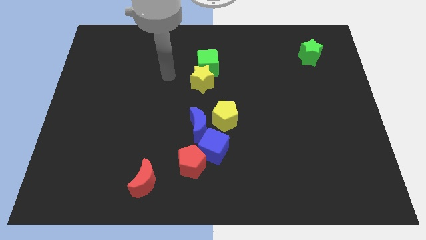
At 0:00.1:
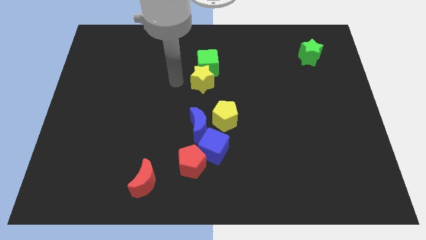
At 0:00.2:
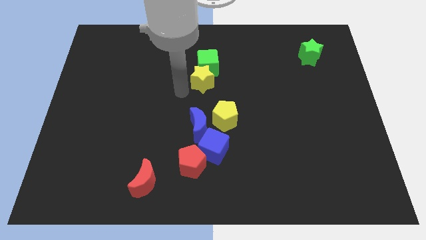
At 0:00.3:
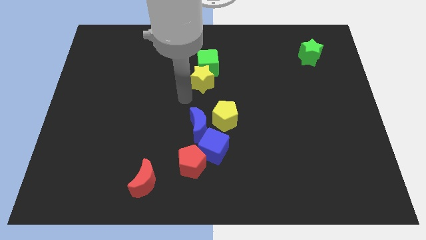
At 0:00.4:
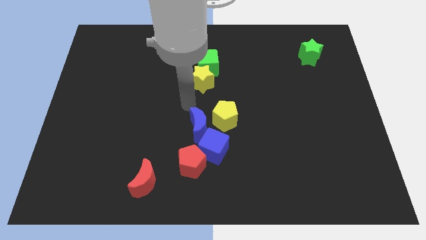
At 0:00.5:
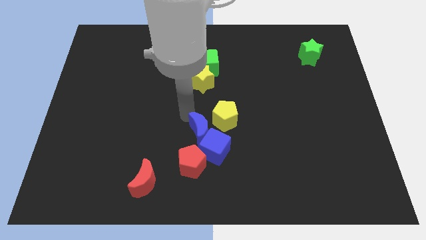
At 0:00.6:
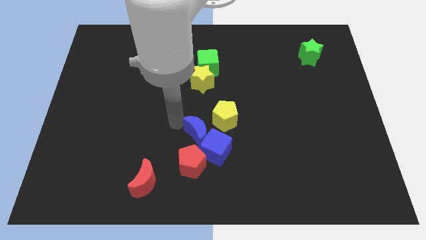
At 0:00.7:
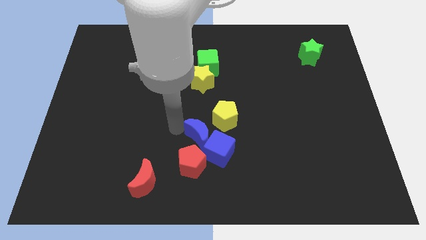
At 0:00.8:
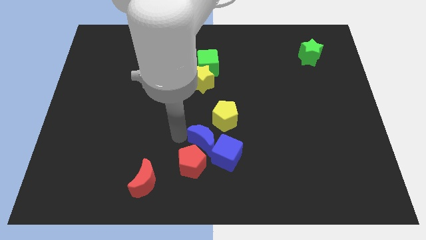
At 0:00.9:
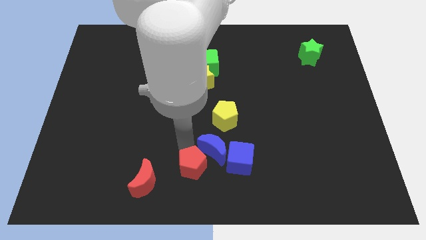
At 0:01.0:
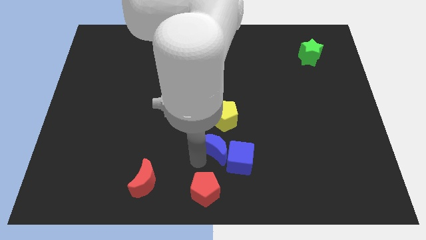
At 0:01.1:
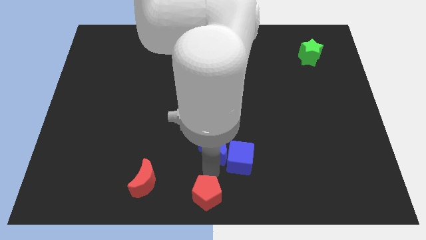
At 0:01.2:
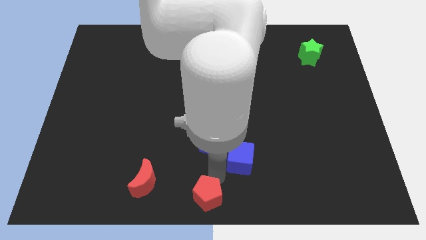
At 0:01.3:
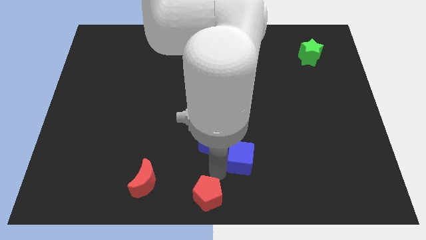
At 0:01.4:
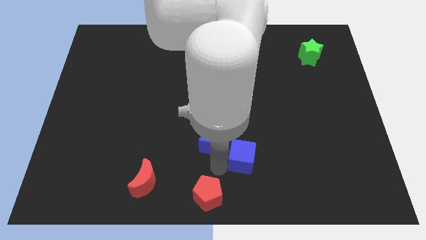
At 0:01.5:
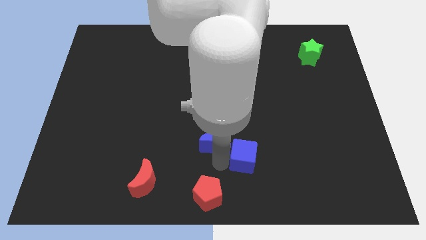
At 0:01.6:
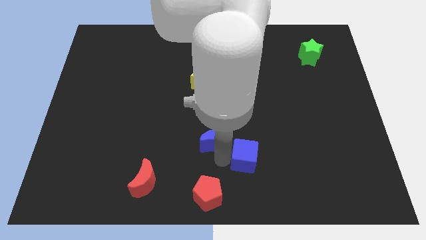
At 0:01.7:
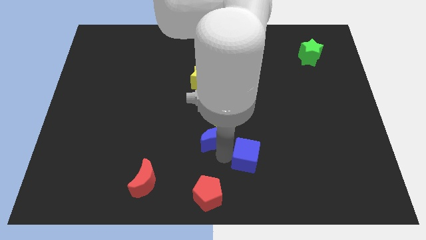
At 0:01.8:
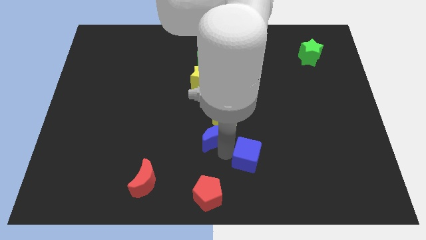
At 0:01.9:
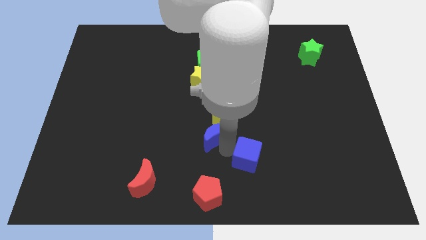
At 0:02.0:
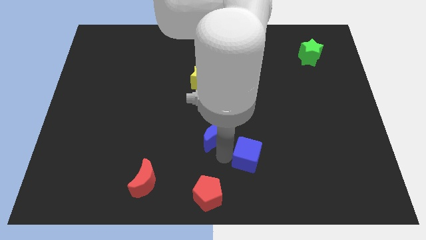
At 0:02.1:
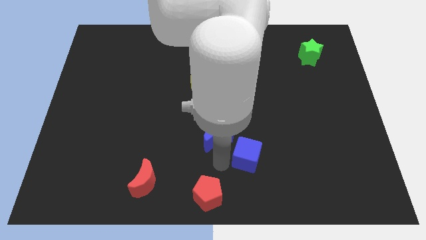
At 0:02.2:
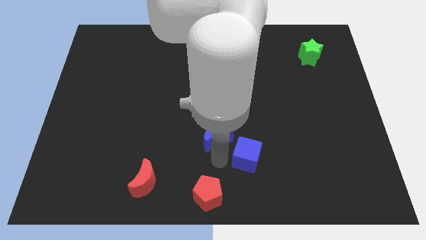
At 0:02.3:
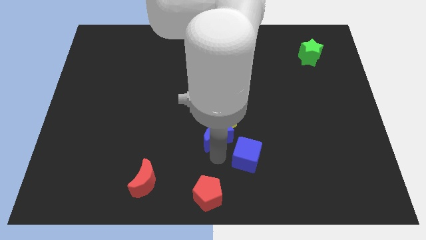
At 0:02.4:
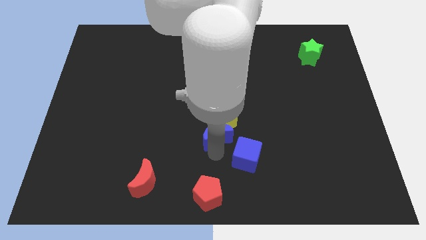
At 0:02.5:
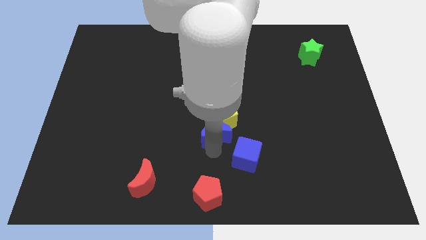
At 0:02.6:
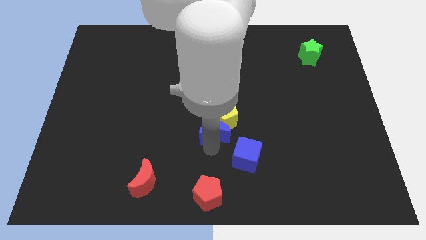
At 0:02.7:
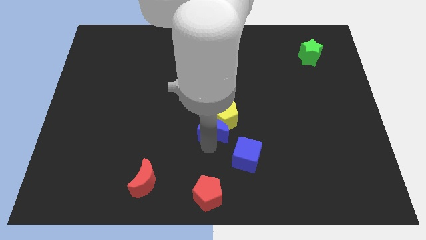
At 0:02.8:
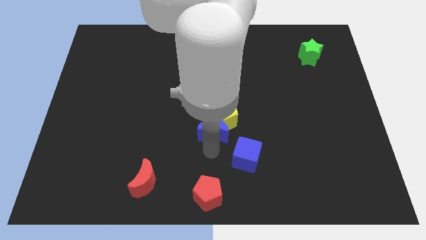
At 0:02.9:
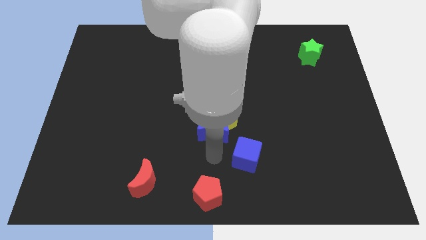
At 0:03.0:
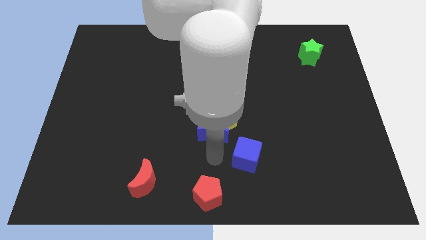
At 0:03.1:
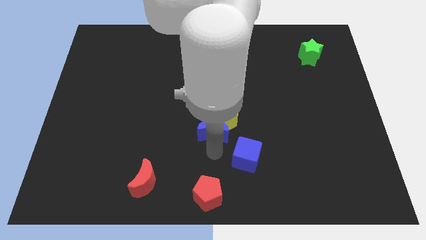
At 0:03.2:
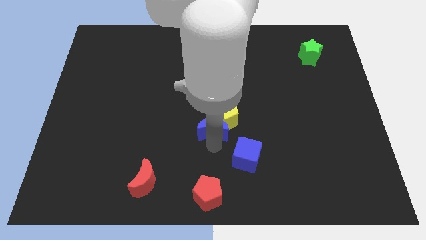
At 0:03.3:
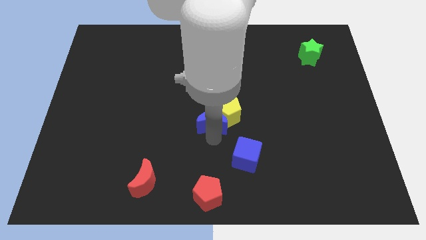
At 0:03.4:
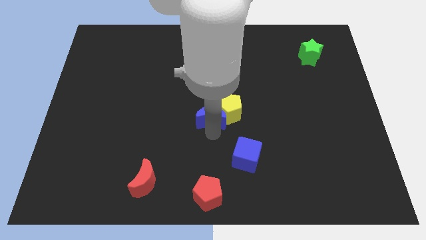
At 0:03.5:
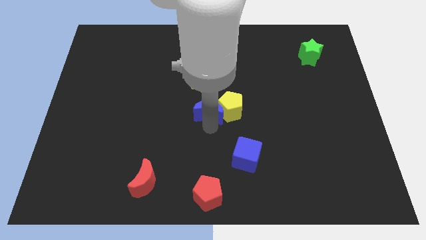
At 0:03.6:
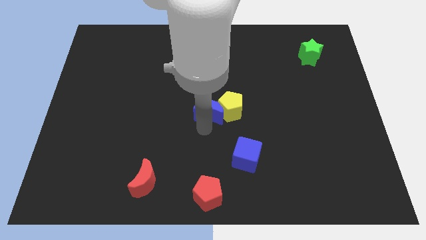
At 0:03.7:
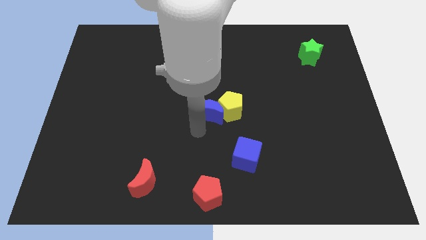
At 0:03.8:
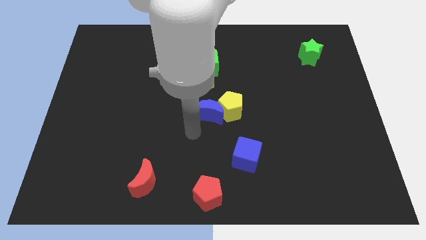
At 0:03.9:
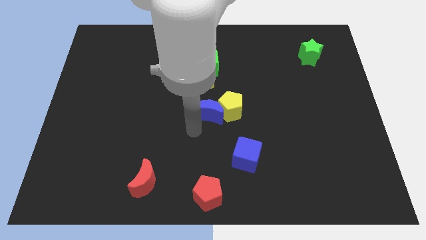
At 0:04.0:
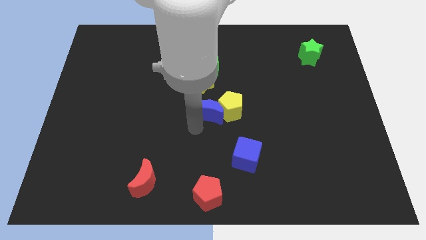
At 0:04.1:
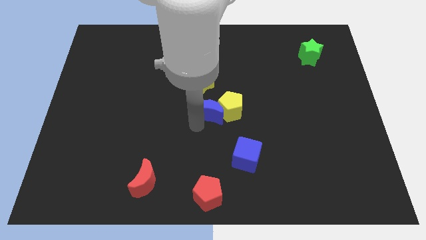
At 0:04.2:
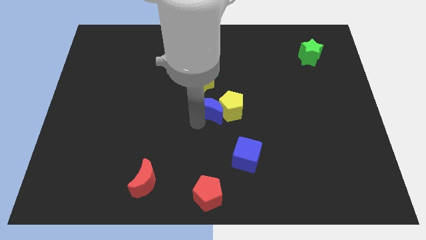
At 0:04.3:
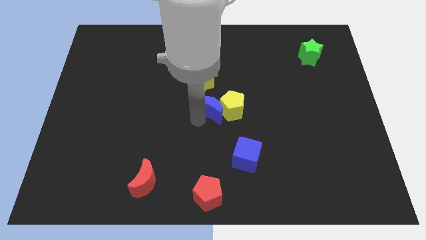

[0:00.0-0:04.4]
push the blue moon diagonally down and to the right of the yellow star

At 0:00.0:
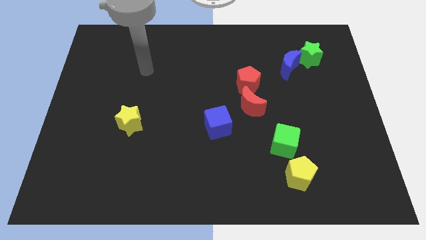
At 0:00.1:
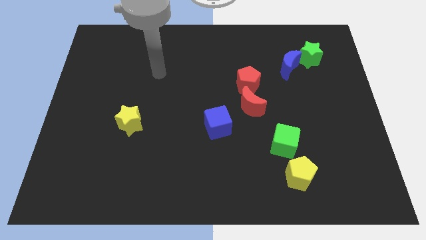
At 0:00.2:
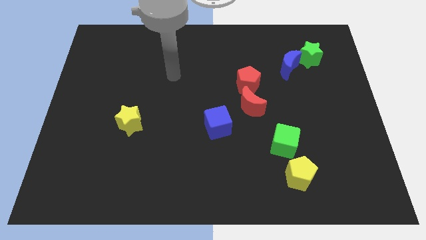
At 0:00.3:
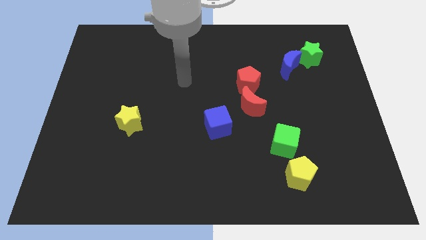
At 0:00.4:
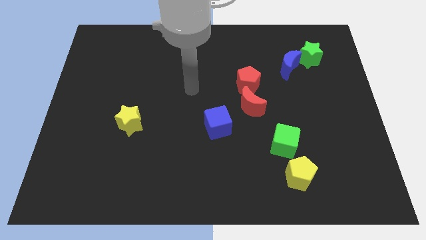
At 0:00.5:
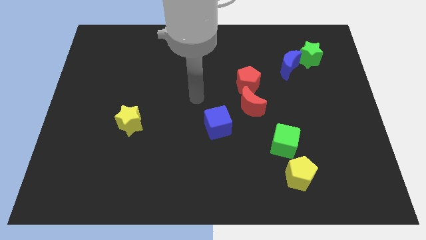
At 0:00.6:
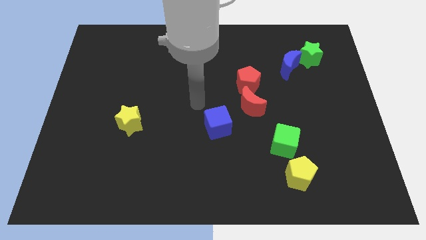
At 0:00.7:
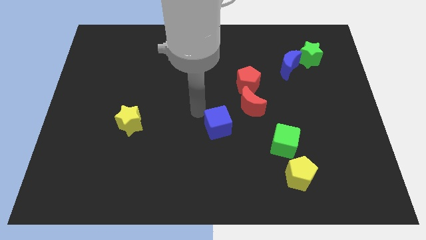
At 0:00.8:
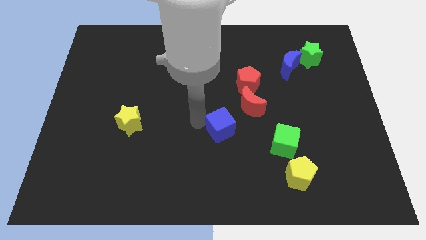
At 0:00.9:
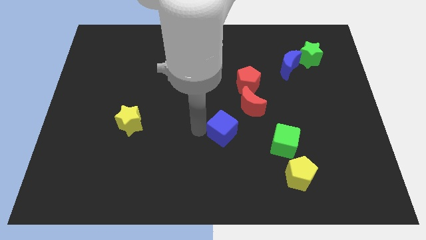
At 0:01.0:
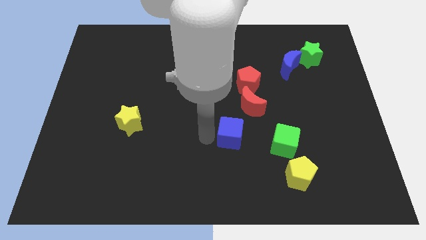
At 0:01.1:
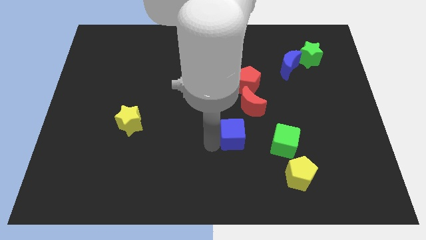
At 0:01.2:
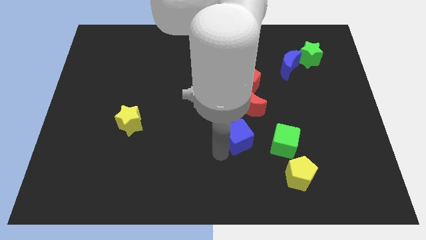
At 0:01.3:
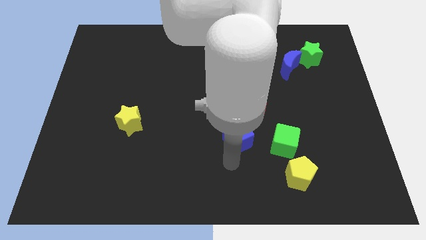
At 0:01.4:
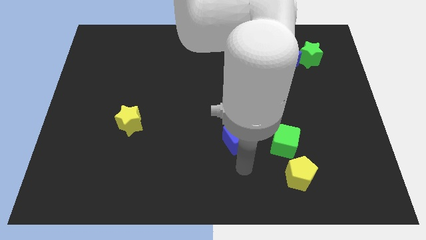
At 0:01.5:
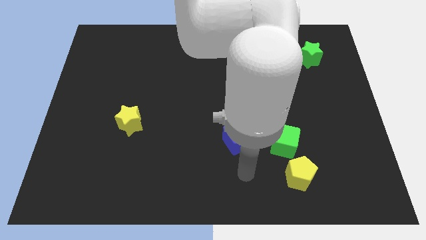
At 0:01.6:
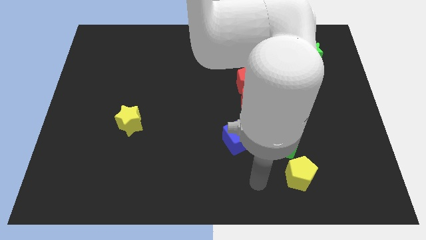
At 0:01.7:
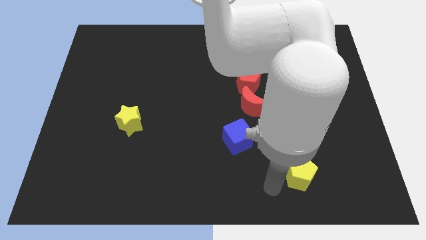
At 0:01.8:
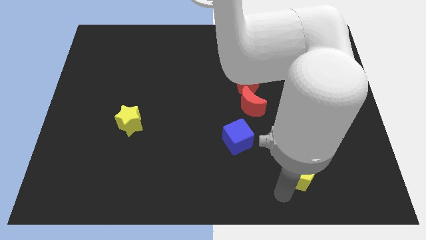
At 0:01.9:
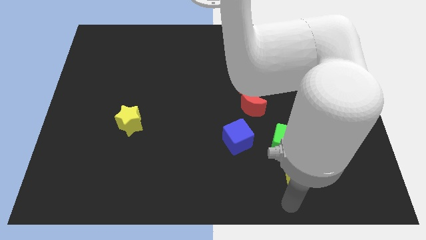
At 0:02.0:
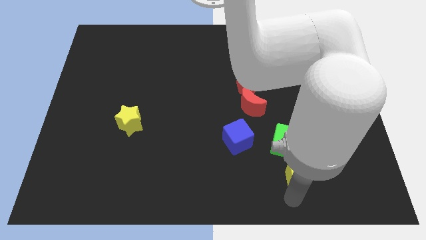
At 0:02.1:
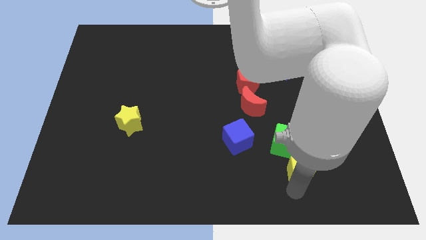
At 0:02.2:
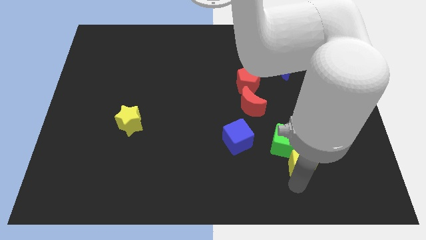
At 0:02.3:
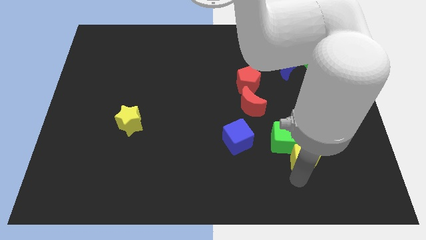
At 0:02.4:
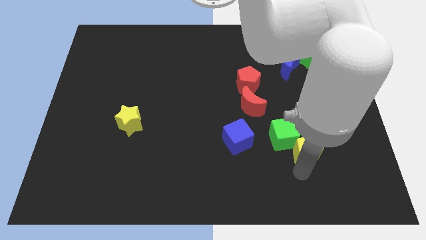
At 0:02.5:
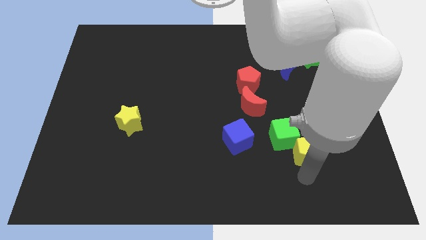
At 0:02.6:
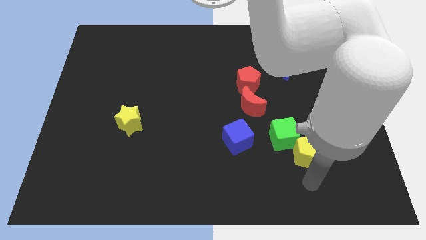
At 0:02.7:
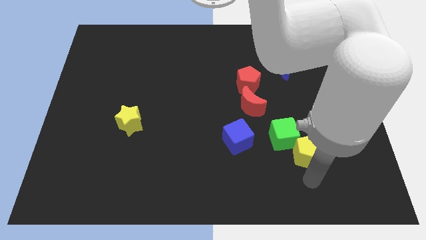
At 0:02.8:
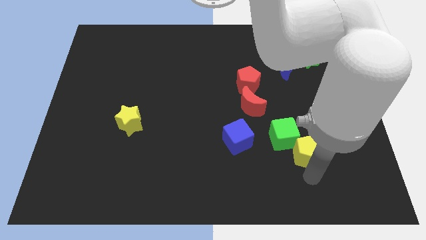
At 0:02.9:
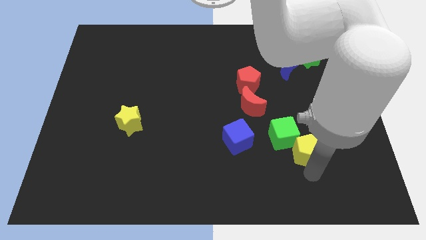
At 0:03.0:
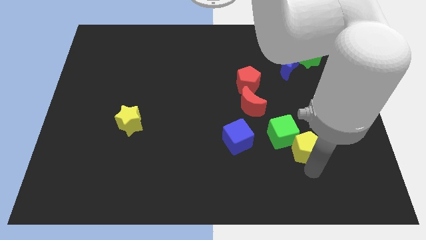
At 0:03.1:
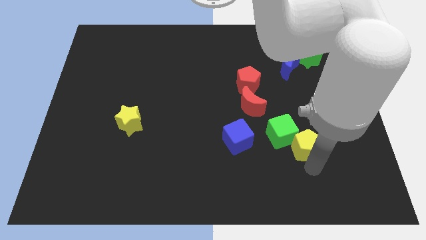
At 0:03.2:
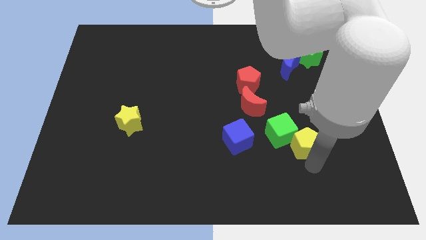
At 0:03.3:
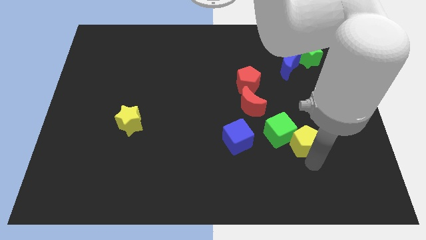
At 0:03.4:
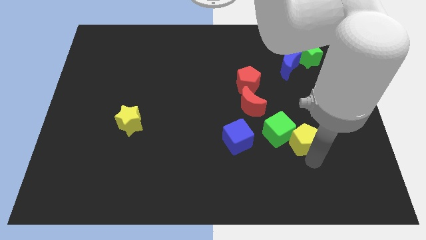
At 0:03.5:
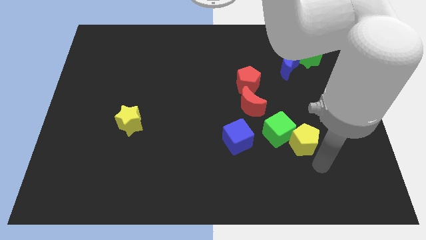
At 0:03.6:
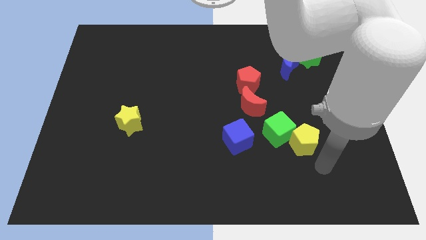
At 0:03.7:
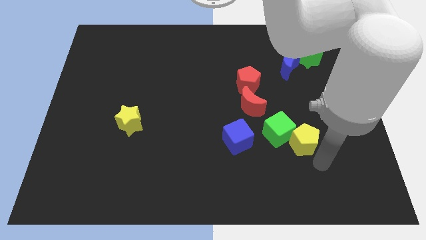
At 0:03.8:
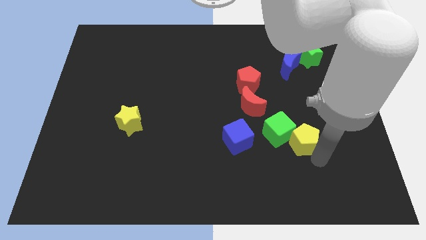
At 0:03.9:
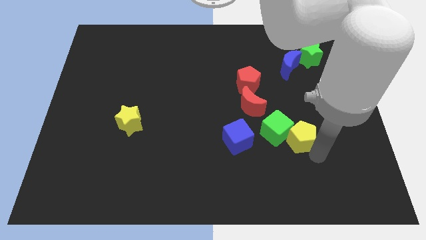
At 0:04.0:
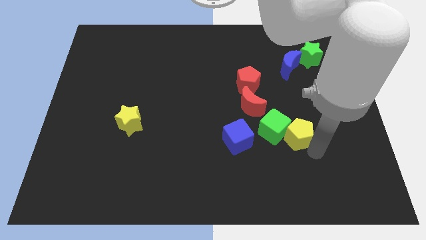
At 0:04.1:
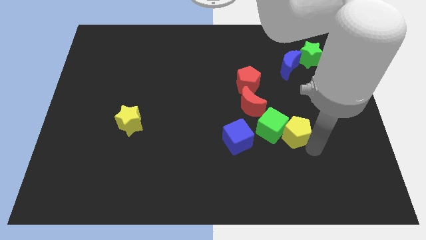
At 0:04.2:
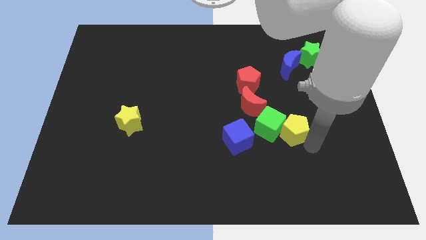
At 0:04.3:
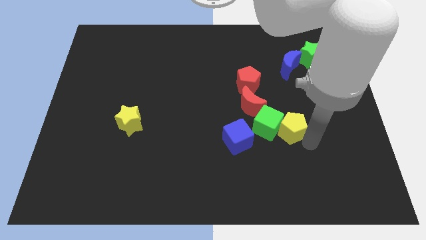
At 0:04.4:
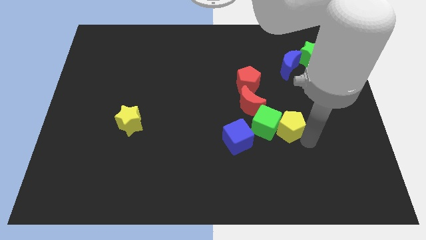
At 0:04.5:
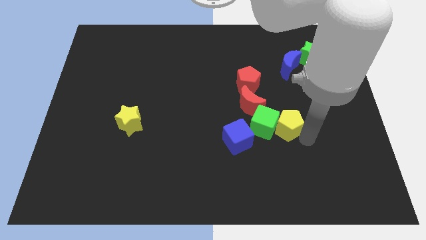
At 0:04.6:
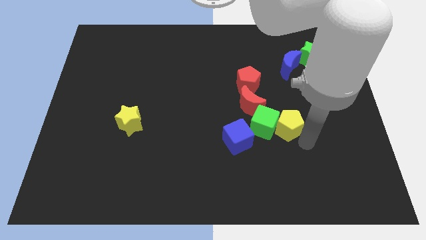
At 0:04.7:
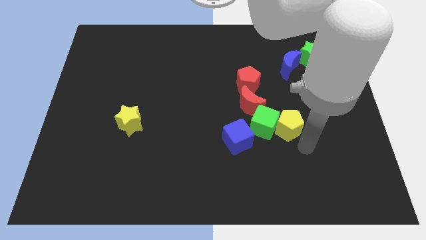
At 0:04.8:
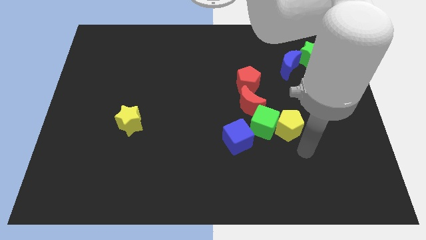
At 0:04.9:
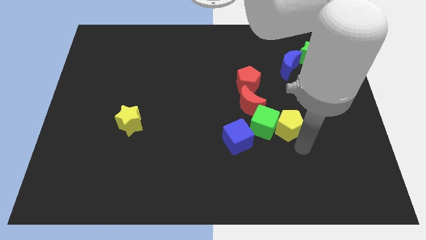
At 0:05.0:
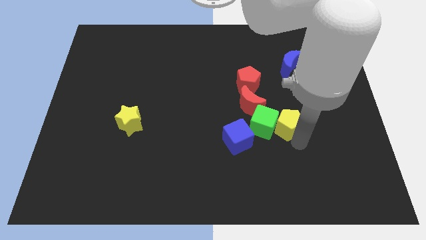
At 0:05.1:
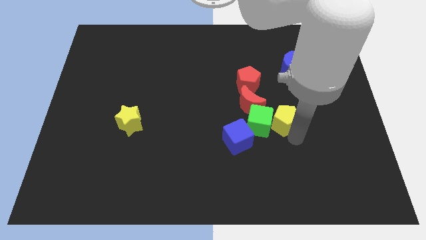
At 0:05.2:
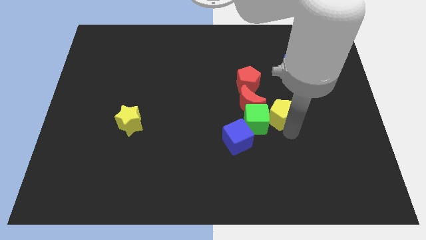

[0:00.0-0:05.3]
put the yellow pentagon to the bottom right side of the red pentagon
